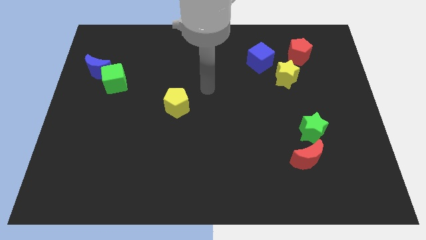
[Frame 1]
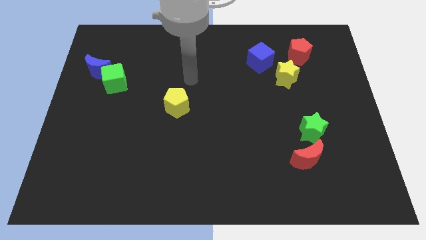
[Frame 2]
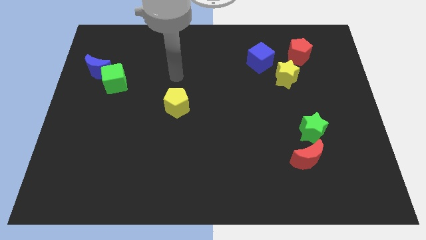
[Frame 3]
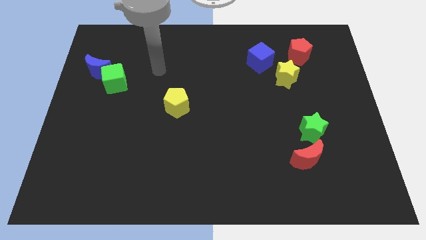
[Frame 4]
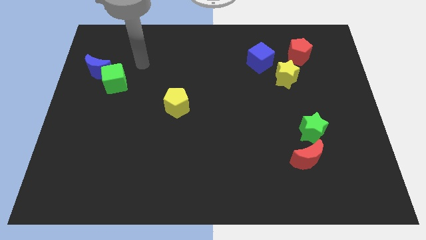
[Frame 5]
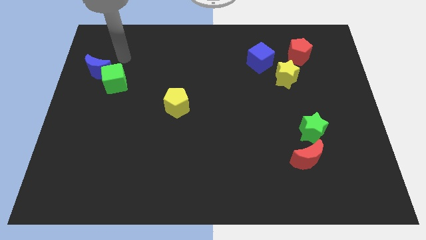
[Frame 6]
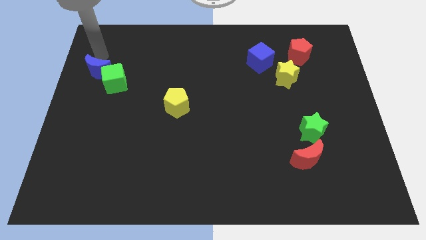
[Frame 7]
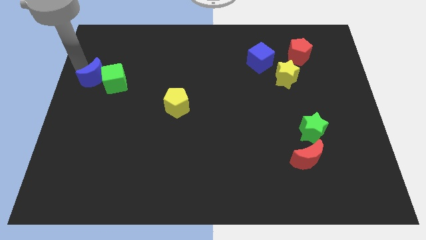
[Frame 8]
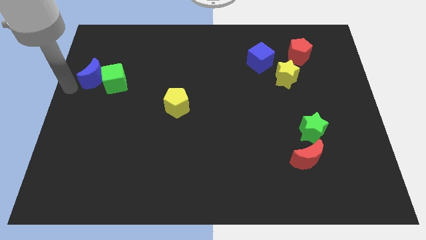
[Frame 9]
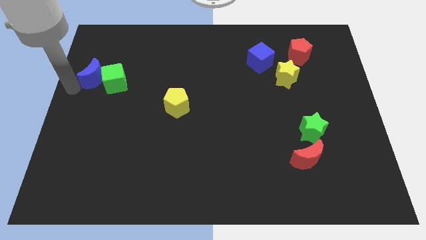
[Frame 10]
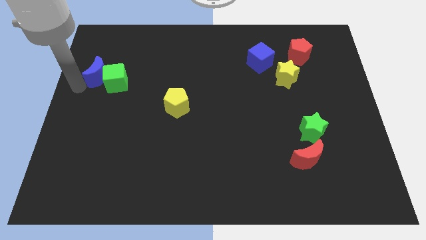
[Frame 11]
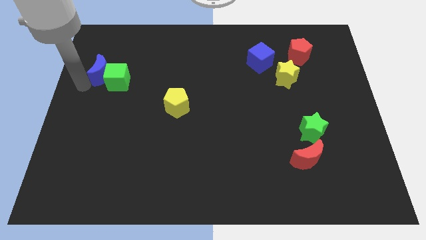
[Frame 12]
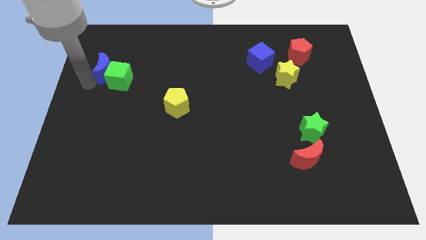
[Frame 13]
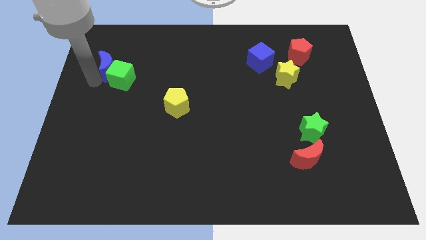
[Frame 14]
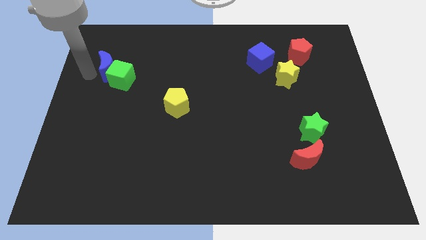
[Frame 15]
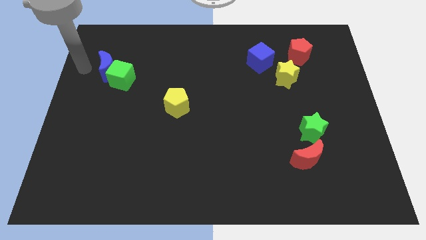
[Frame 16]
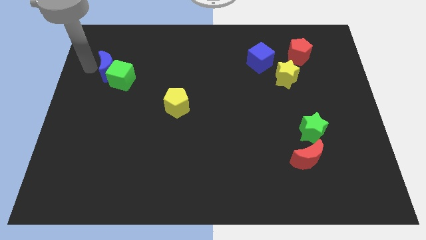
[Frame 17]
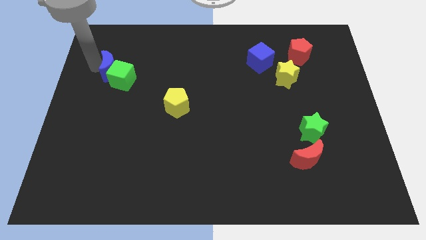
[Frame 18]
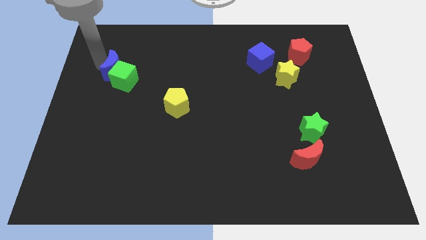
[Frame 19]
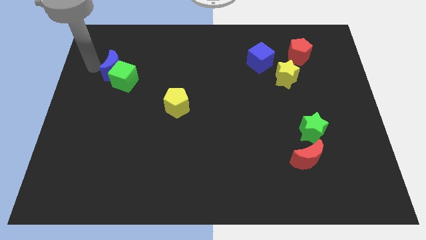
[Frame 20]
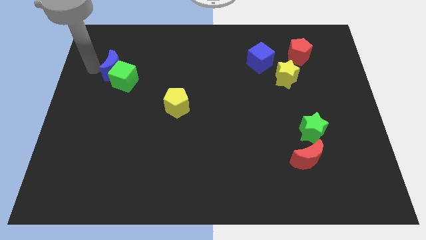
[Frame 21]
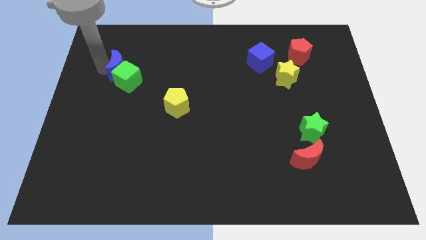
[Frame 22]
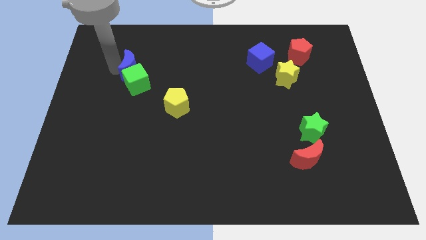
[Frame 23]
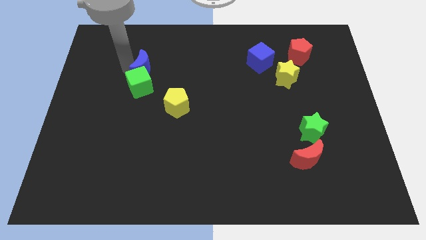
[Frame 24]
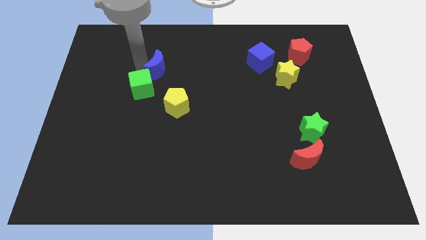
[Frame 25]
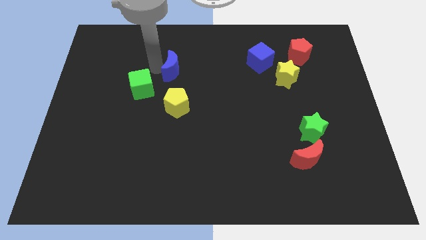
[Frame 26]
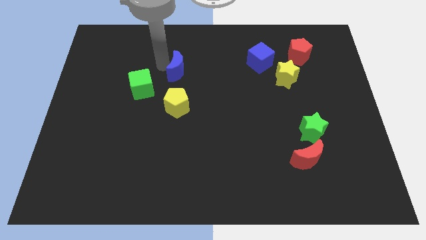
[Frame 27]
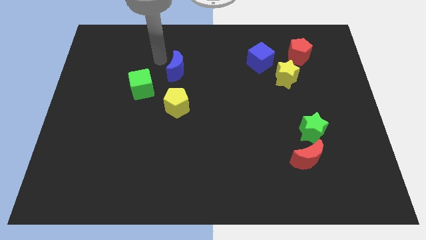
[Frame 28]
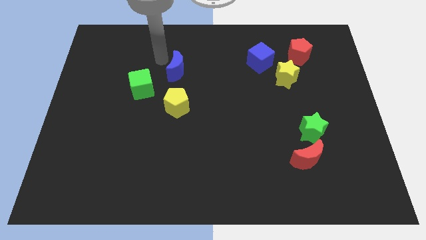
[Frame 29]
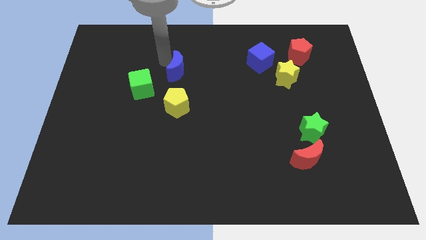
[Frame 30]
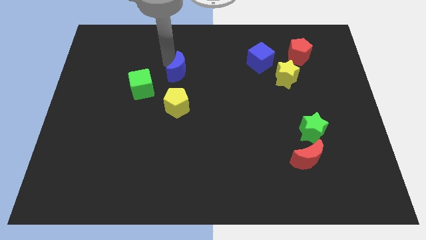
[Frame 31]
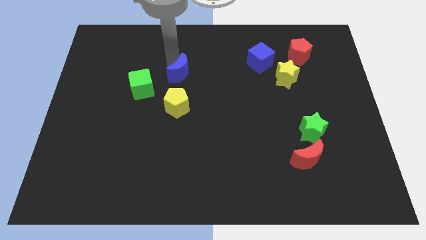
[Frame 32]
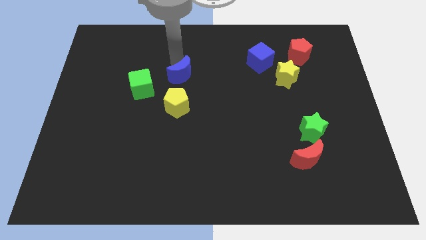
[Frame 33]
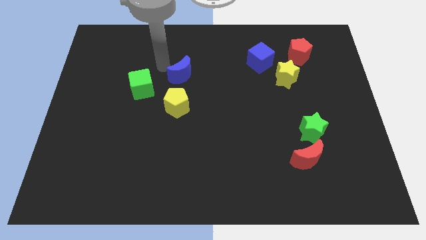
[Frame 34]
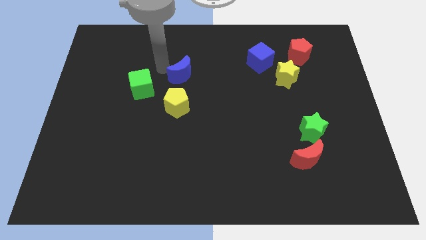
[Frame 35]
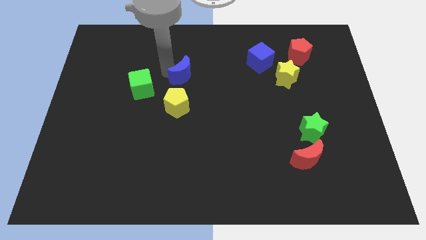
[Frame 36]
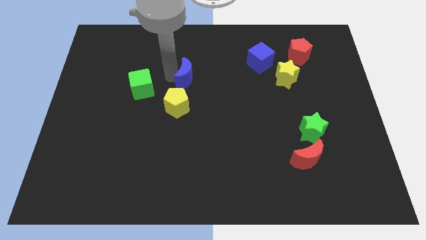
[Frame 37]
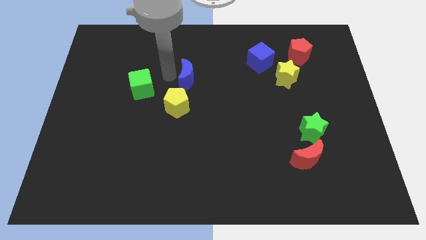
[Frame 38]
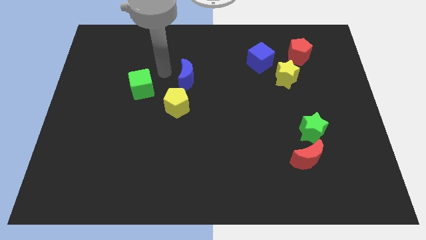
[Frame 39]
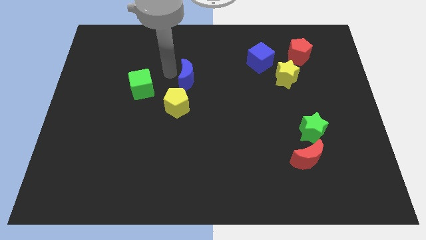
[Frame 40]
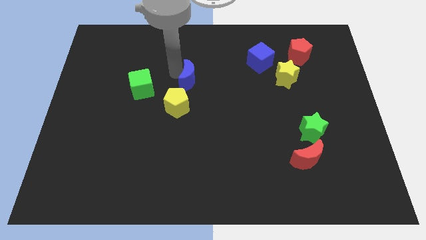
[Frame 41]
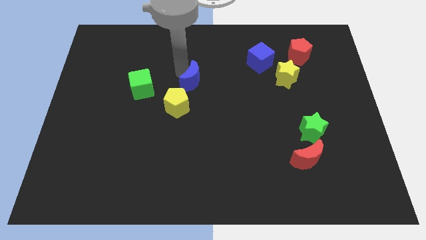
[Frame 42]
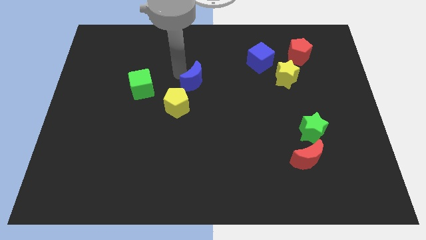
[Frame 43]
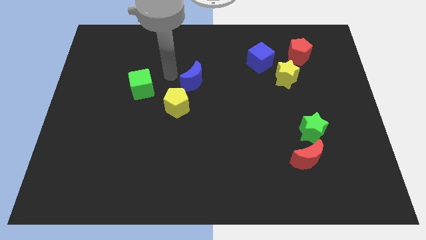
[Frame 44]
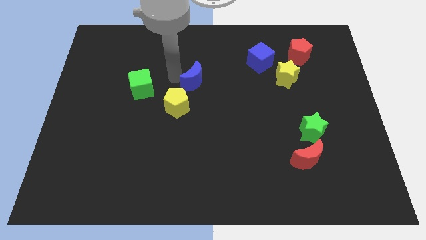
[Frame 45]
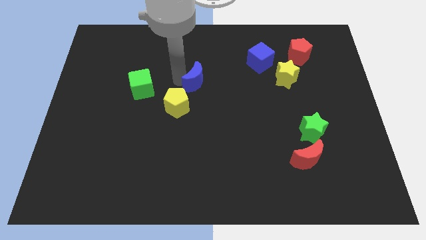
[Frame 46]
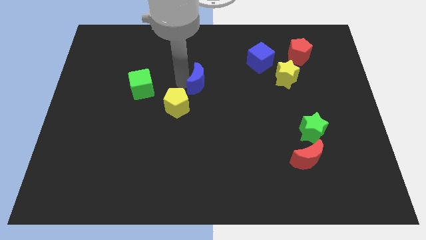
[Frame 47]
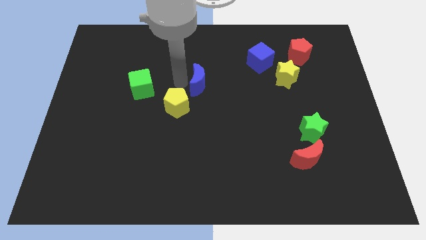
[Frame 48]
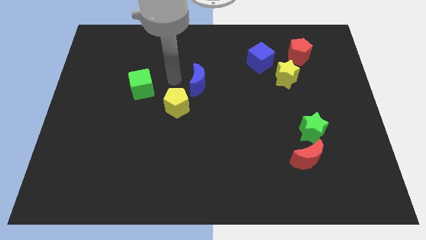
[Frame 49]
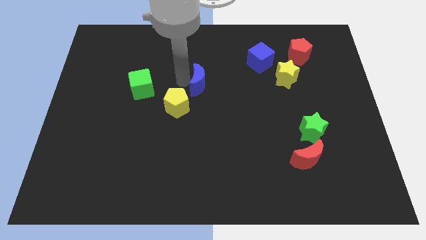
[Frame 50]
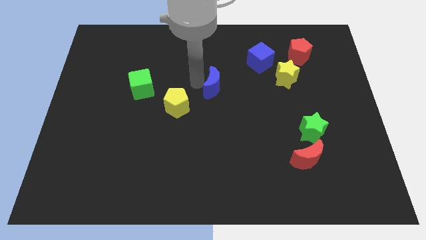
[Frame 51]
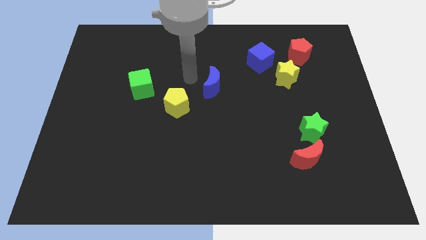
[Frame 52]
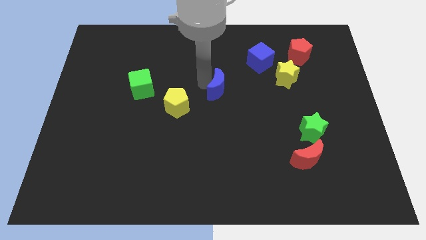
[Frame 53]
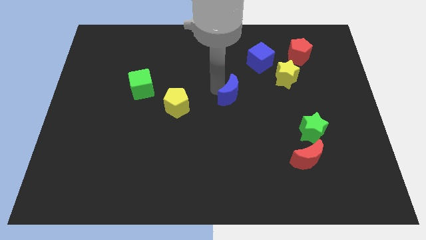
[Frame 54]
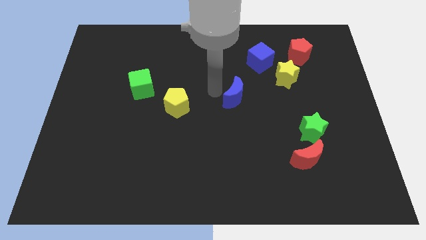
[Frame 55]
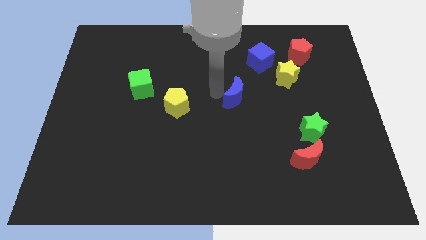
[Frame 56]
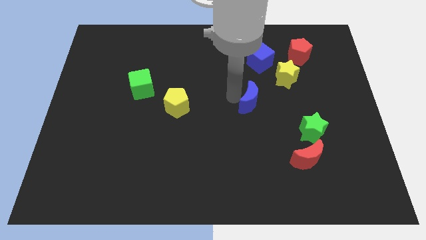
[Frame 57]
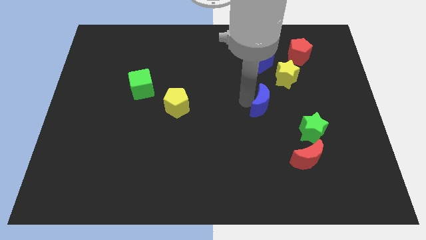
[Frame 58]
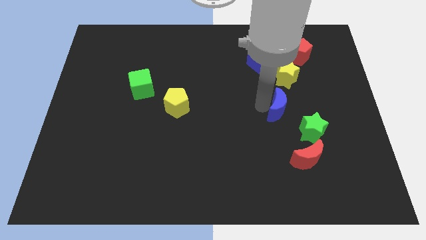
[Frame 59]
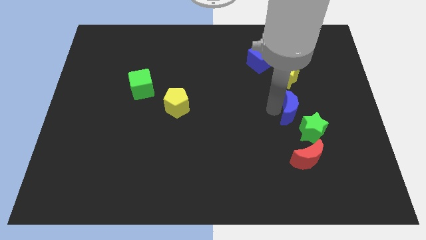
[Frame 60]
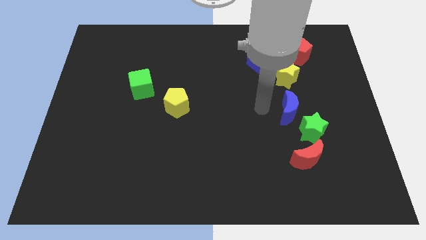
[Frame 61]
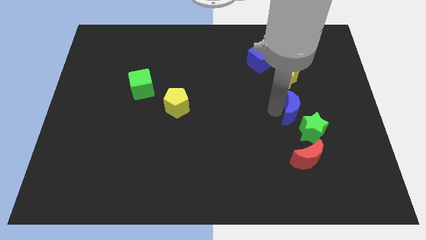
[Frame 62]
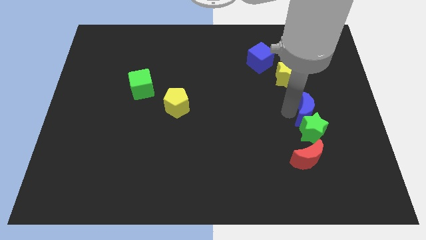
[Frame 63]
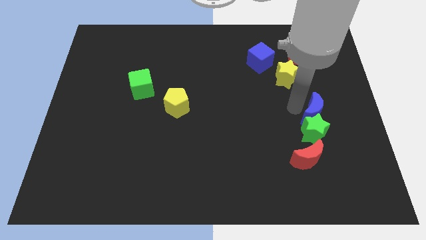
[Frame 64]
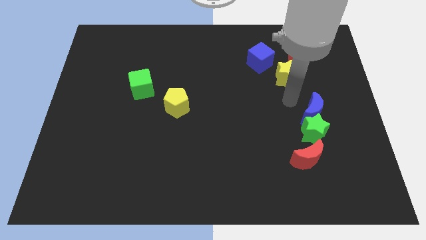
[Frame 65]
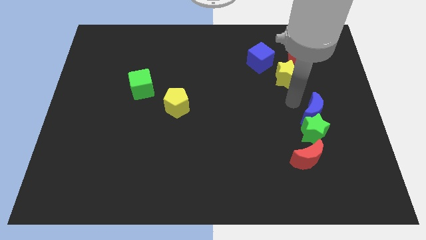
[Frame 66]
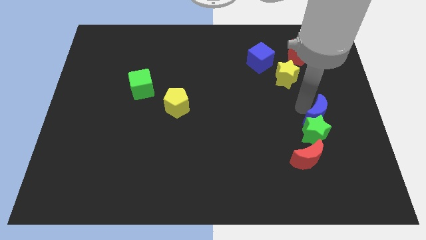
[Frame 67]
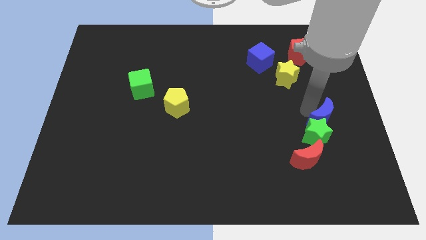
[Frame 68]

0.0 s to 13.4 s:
slide the blue moon to the top right side of the red moon

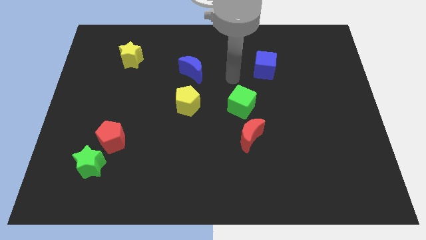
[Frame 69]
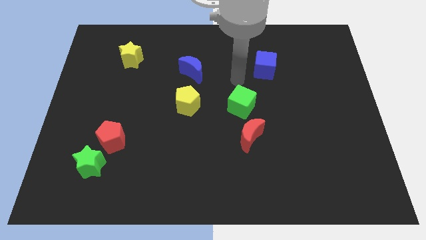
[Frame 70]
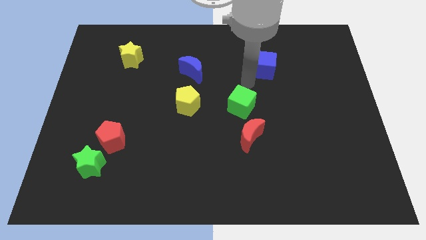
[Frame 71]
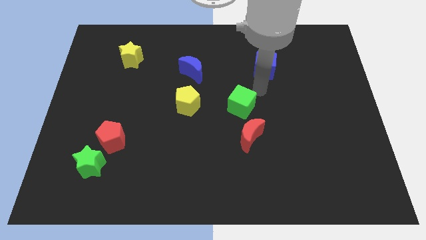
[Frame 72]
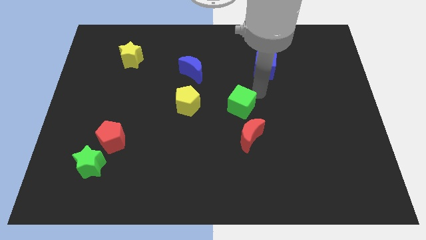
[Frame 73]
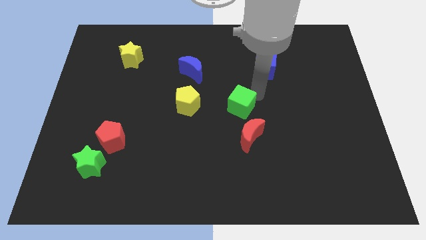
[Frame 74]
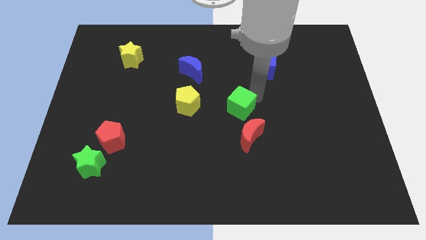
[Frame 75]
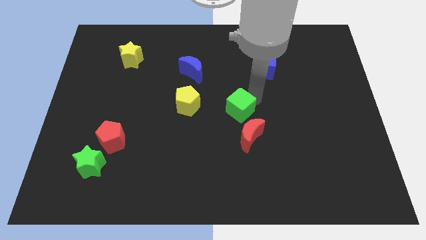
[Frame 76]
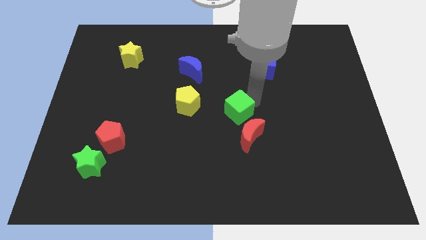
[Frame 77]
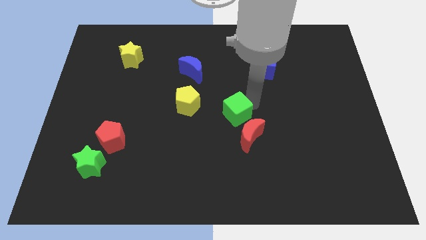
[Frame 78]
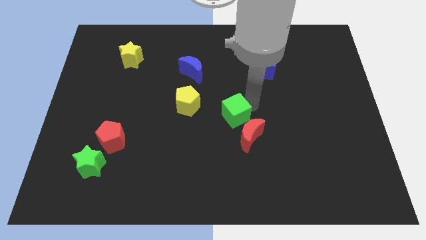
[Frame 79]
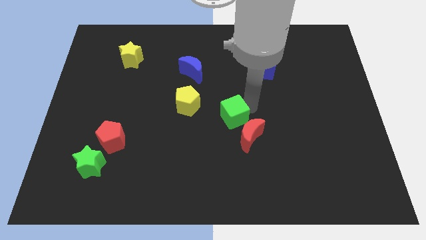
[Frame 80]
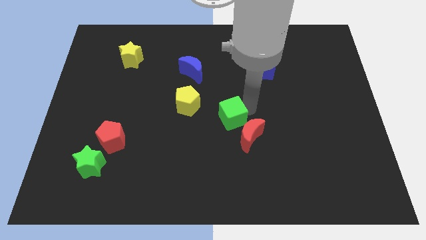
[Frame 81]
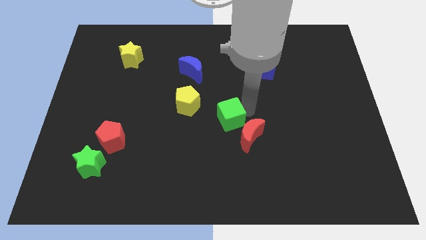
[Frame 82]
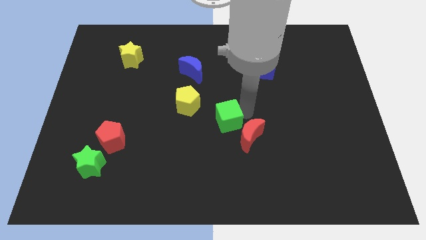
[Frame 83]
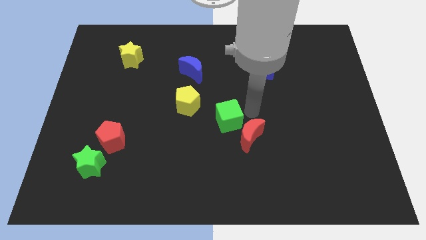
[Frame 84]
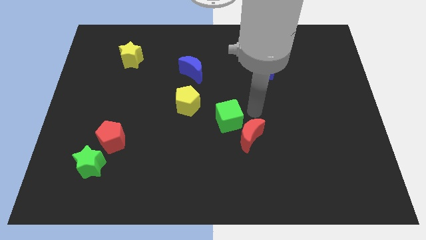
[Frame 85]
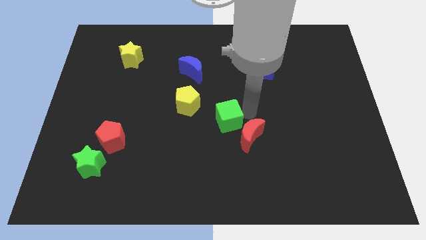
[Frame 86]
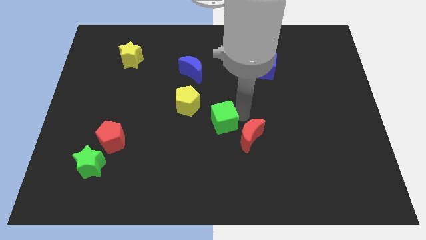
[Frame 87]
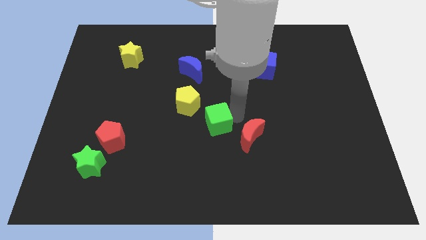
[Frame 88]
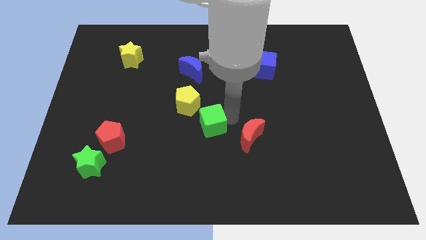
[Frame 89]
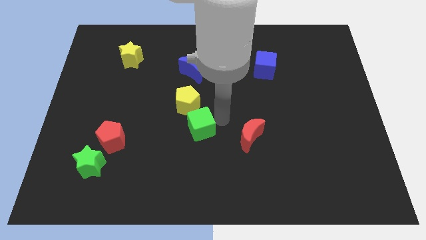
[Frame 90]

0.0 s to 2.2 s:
move the green cube to the bottom side of the yellow pentagon
